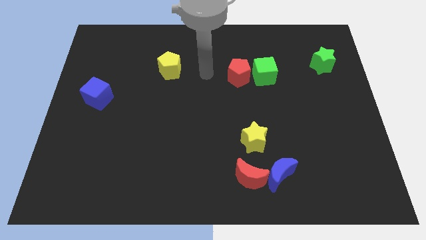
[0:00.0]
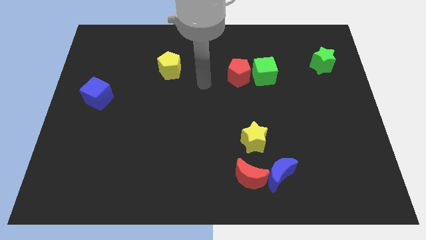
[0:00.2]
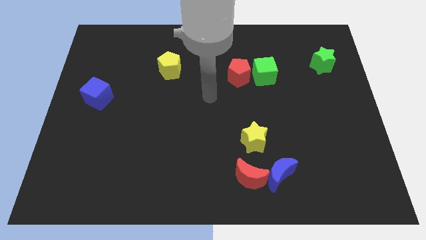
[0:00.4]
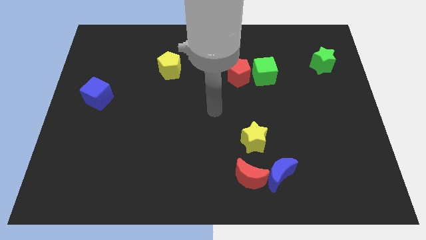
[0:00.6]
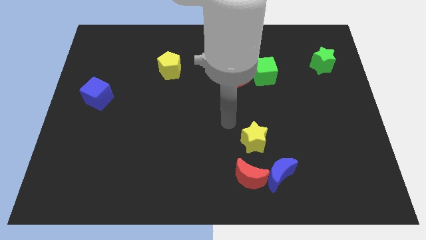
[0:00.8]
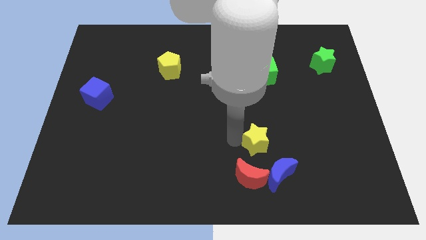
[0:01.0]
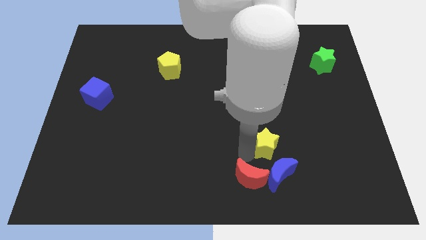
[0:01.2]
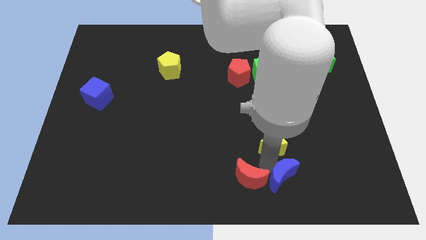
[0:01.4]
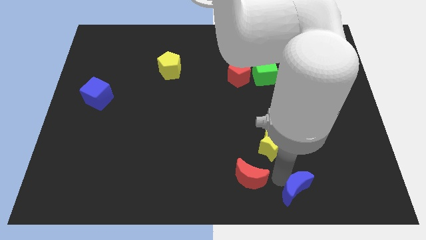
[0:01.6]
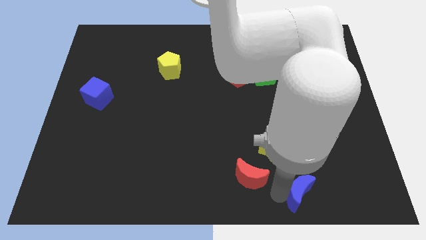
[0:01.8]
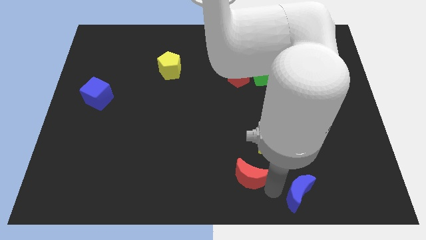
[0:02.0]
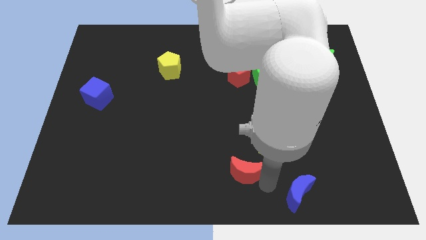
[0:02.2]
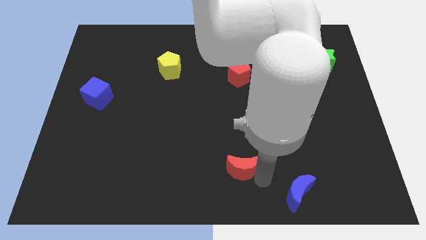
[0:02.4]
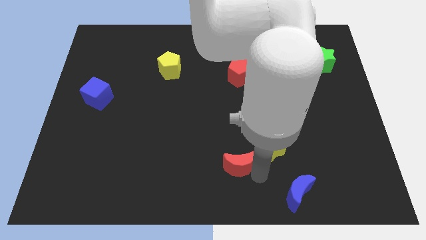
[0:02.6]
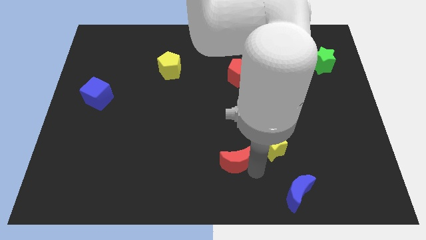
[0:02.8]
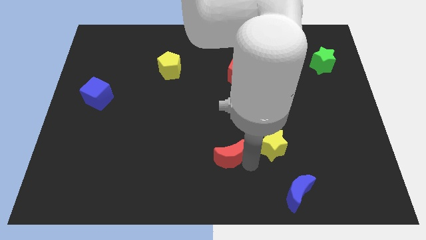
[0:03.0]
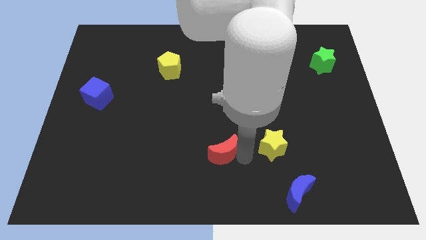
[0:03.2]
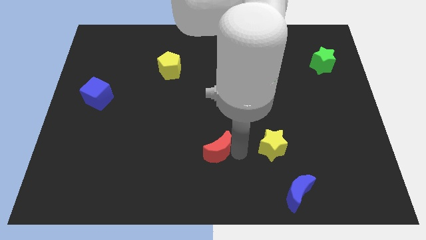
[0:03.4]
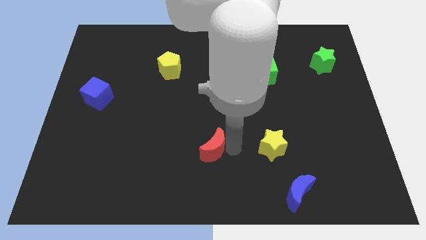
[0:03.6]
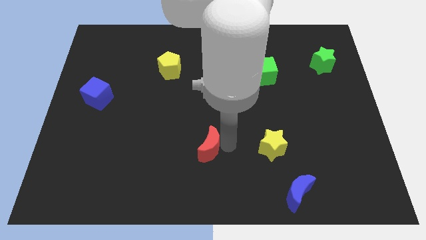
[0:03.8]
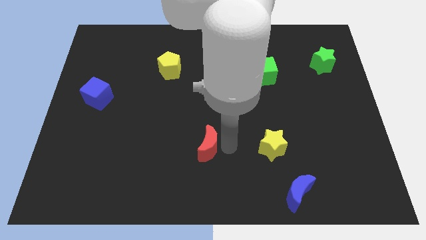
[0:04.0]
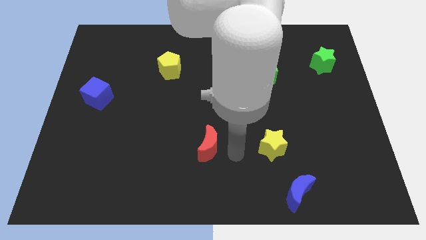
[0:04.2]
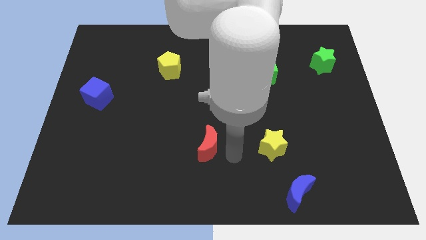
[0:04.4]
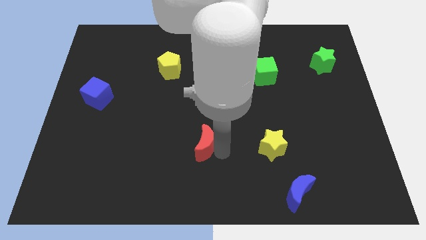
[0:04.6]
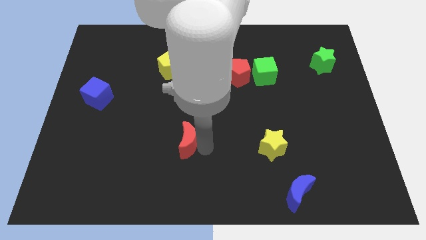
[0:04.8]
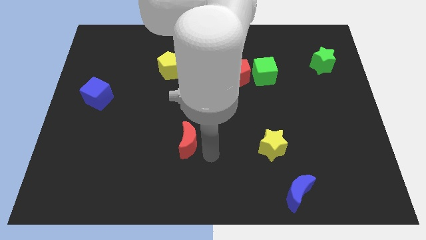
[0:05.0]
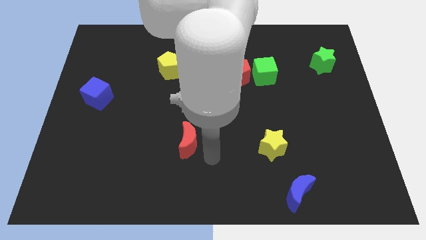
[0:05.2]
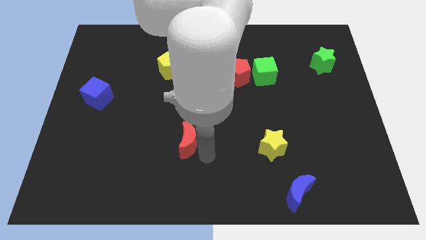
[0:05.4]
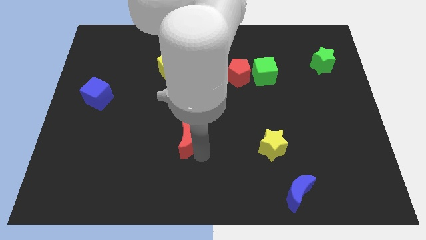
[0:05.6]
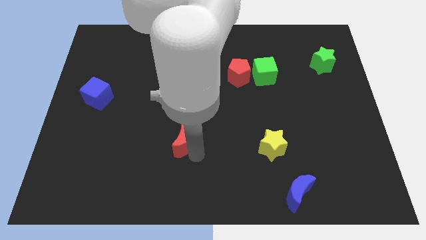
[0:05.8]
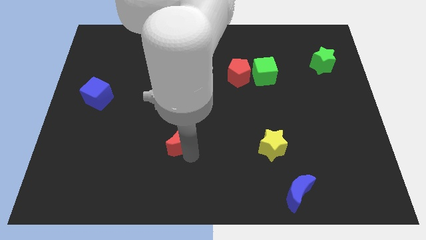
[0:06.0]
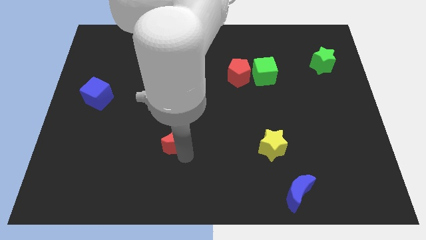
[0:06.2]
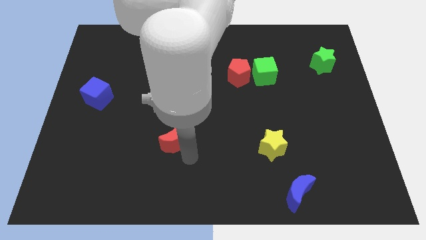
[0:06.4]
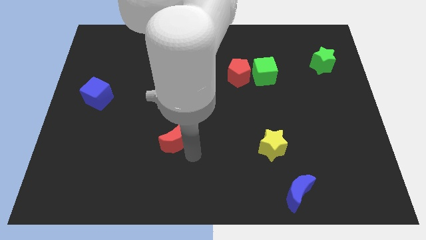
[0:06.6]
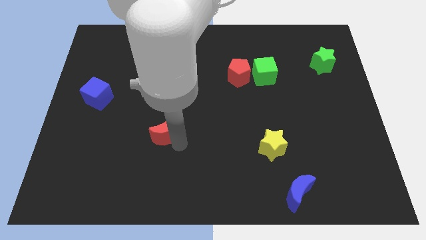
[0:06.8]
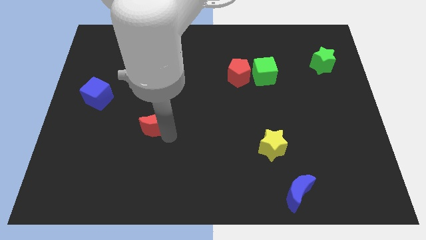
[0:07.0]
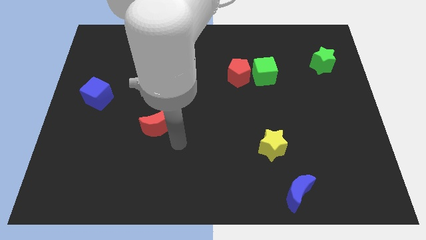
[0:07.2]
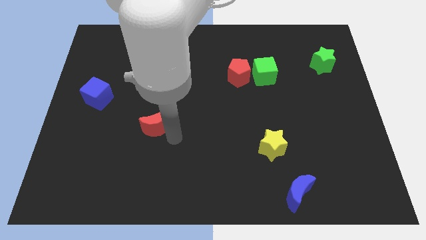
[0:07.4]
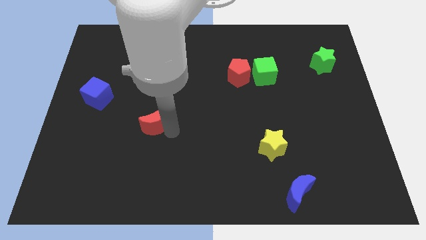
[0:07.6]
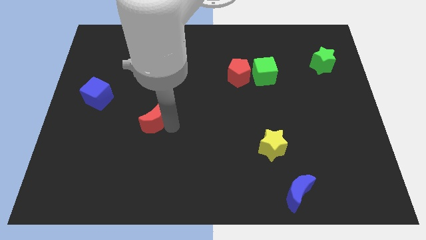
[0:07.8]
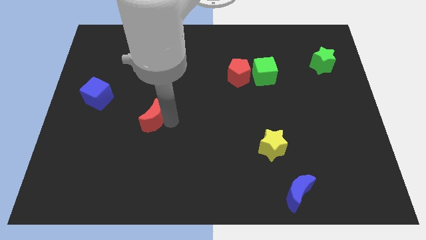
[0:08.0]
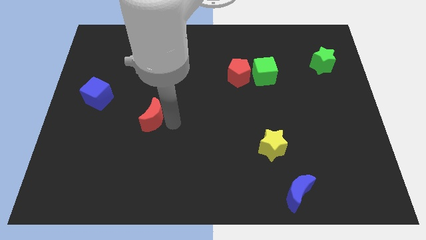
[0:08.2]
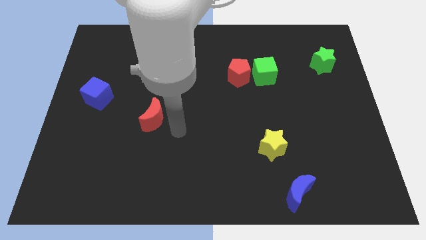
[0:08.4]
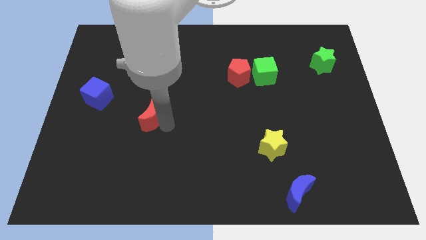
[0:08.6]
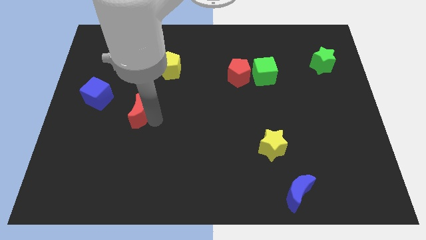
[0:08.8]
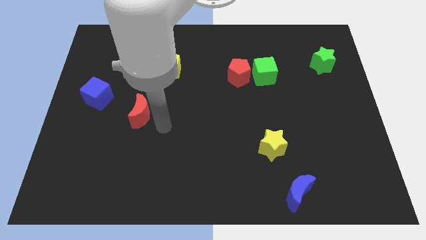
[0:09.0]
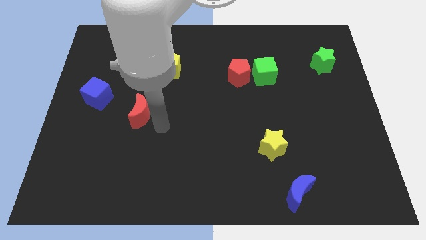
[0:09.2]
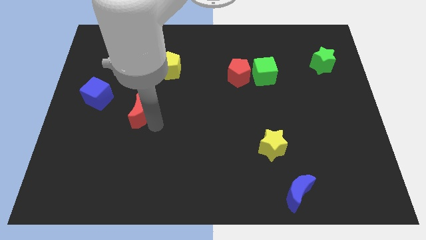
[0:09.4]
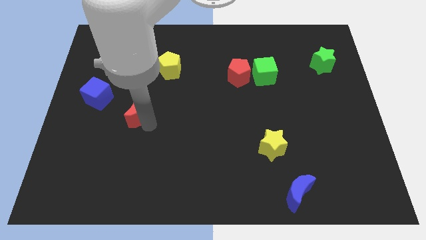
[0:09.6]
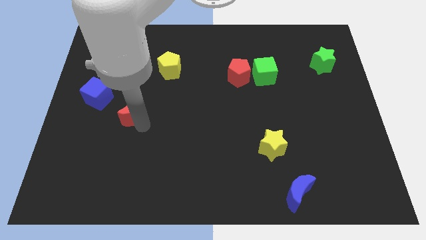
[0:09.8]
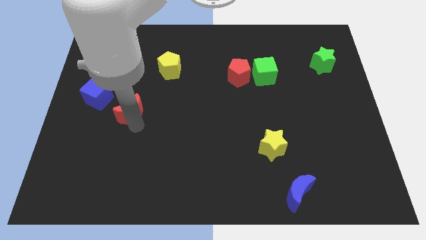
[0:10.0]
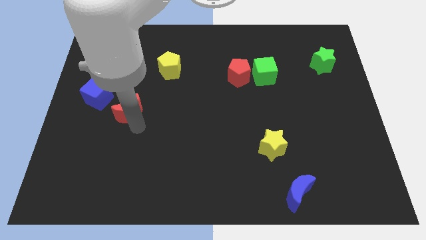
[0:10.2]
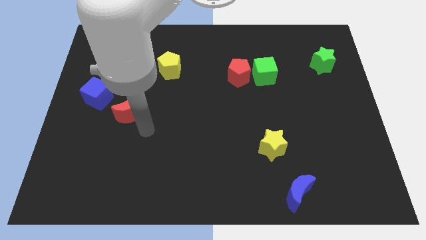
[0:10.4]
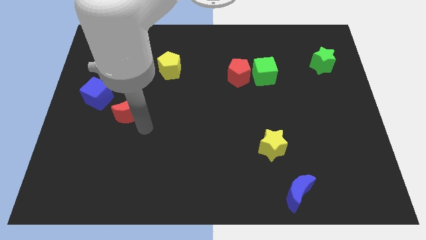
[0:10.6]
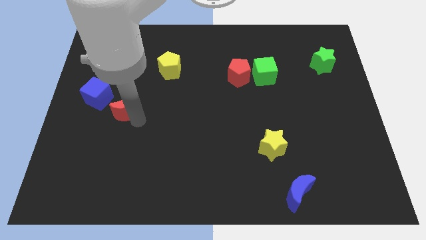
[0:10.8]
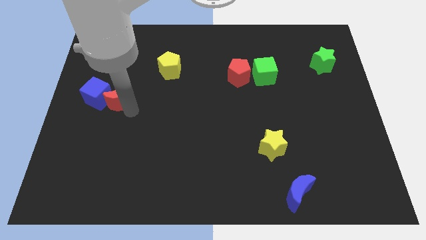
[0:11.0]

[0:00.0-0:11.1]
put the red moon to the blue cube

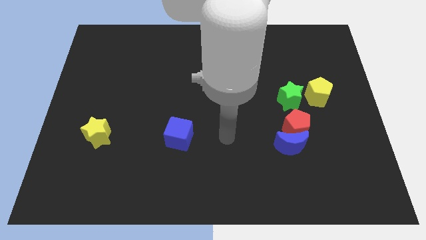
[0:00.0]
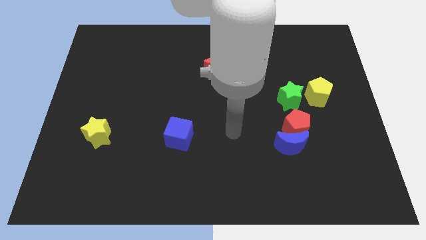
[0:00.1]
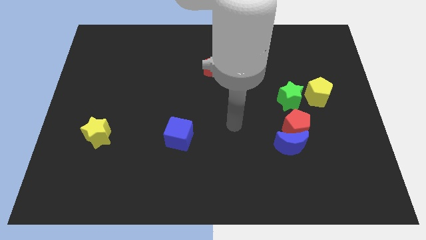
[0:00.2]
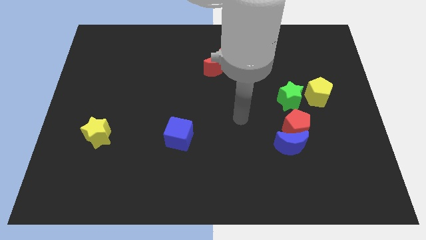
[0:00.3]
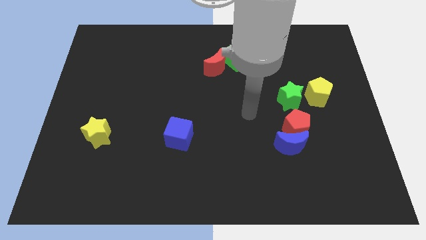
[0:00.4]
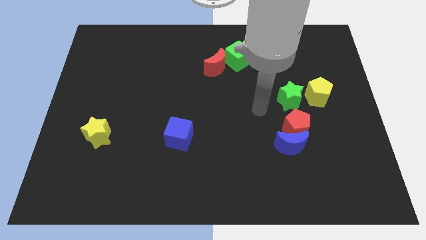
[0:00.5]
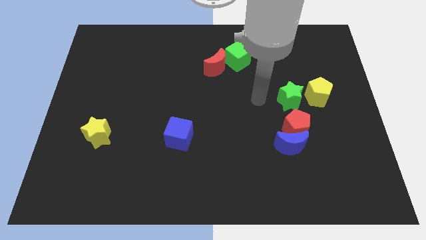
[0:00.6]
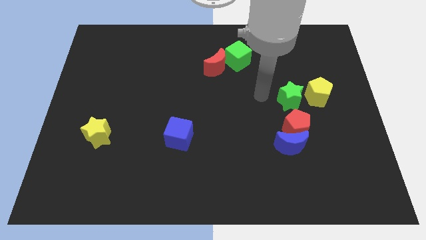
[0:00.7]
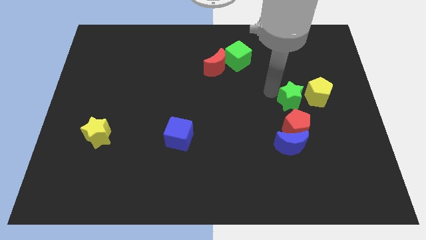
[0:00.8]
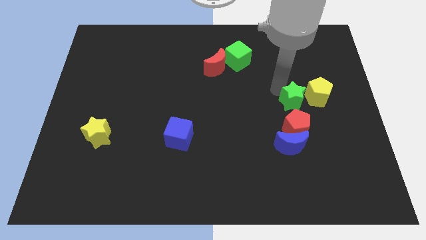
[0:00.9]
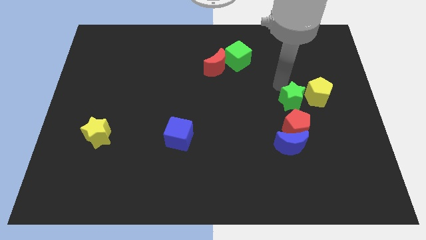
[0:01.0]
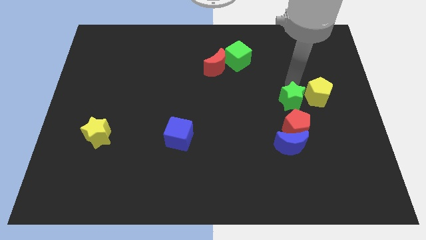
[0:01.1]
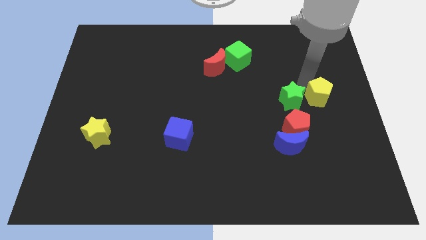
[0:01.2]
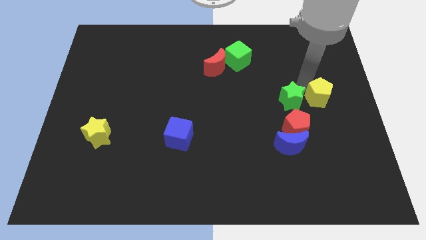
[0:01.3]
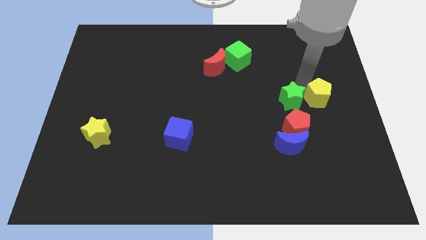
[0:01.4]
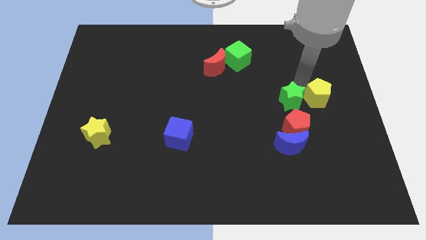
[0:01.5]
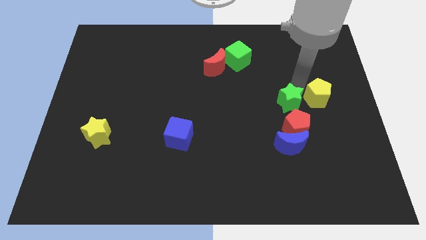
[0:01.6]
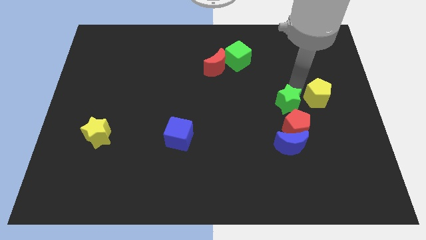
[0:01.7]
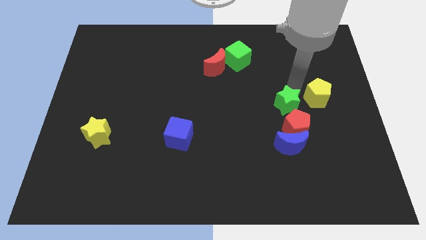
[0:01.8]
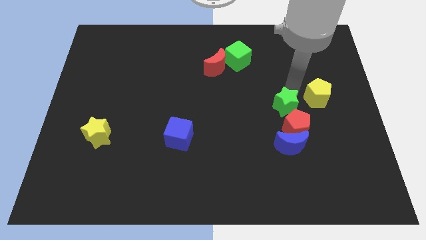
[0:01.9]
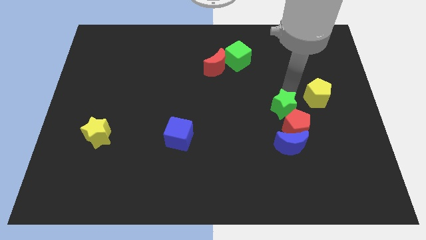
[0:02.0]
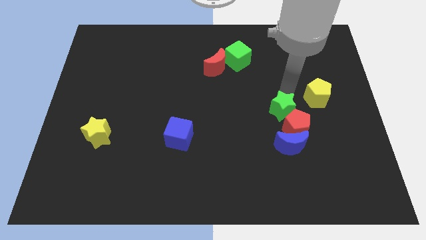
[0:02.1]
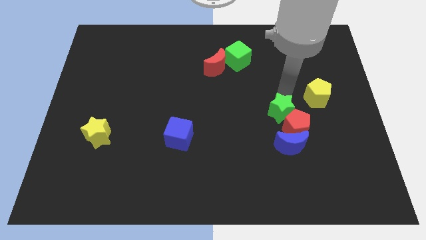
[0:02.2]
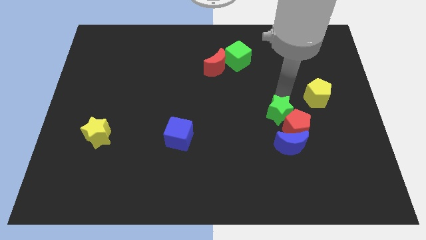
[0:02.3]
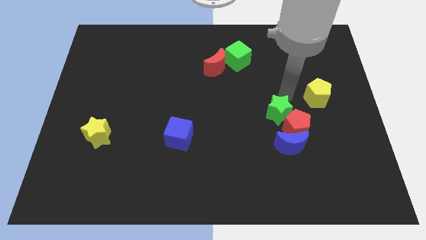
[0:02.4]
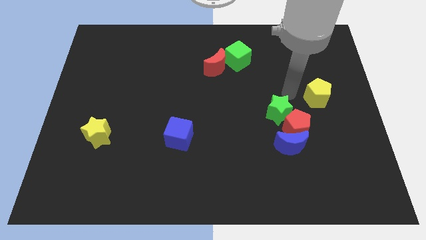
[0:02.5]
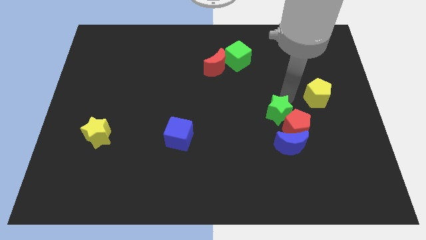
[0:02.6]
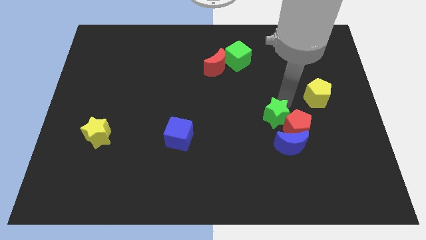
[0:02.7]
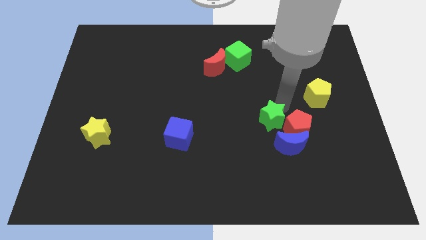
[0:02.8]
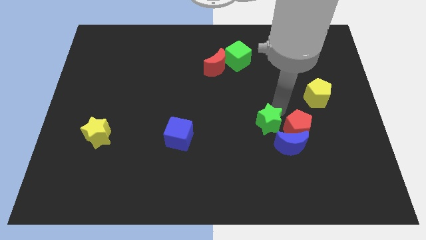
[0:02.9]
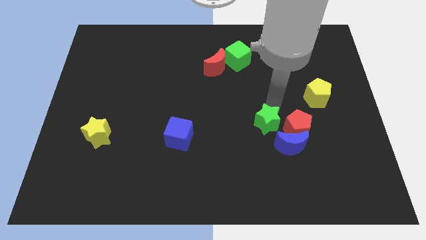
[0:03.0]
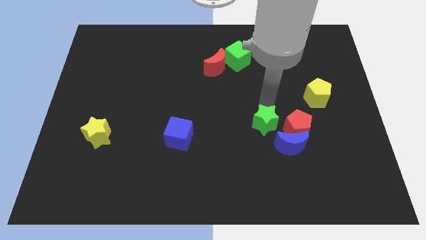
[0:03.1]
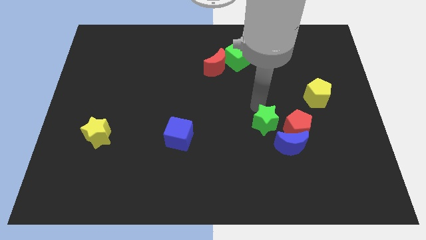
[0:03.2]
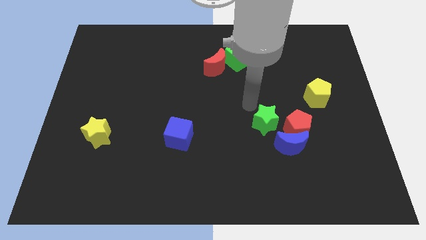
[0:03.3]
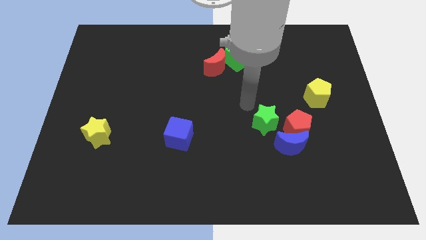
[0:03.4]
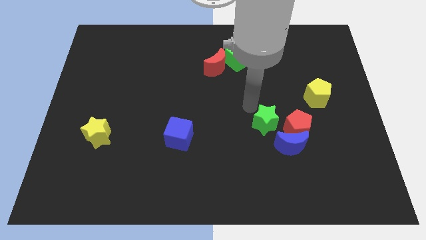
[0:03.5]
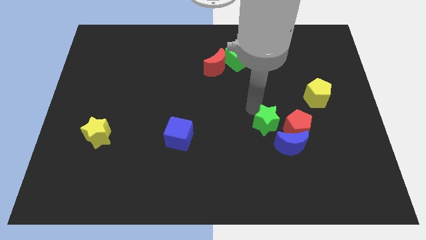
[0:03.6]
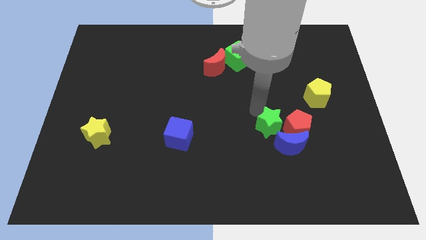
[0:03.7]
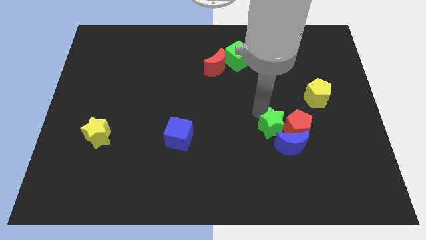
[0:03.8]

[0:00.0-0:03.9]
slide the green star next to the blue moon
